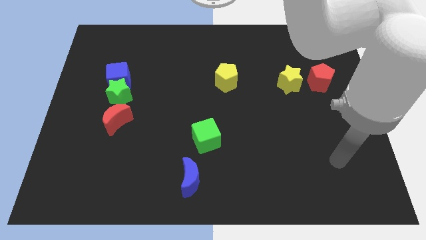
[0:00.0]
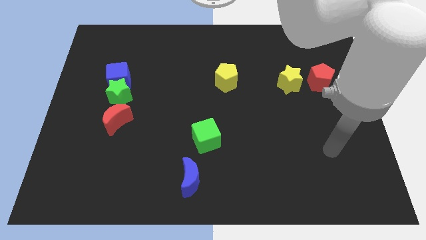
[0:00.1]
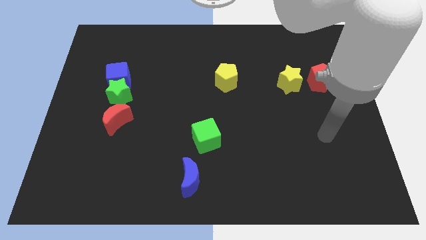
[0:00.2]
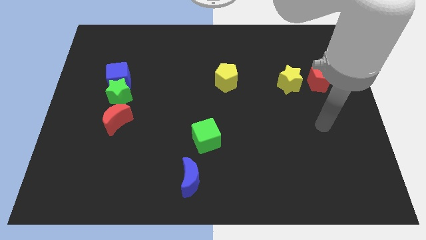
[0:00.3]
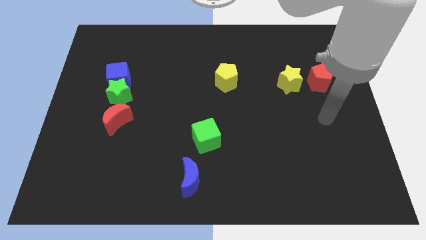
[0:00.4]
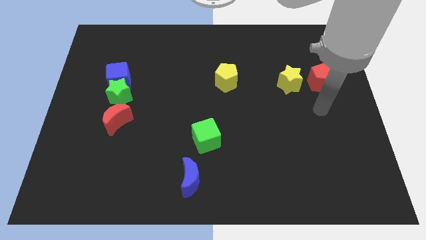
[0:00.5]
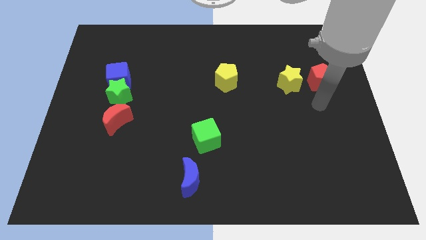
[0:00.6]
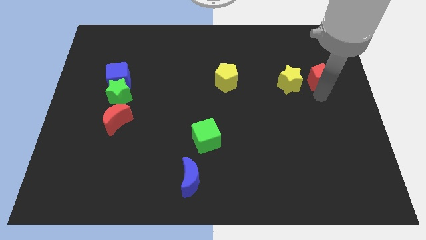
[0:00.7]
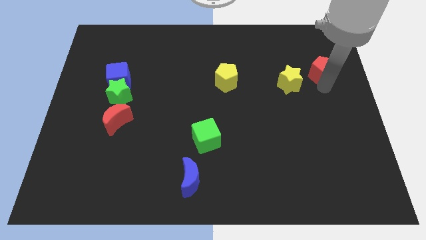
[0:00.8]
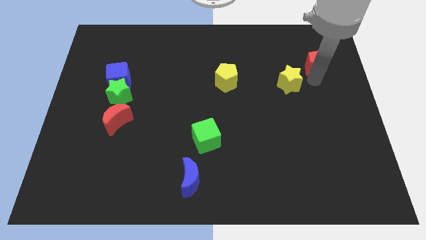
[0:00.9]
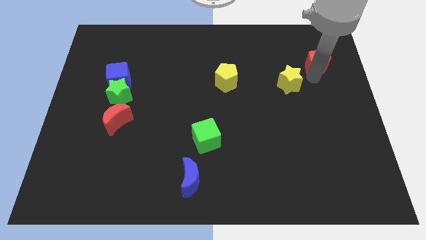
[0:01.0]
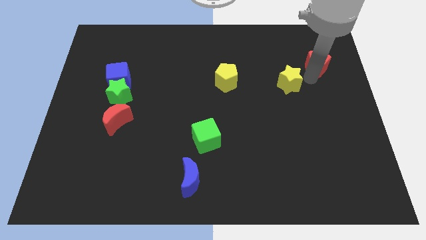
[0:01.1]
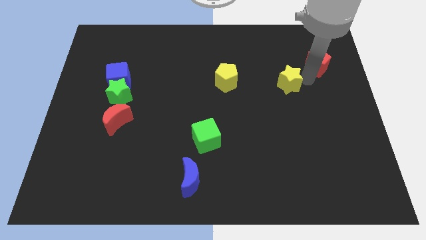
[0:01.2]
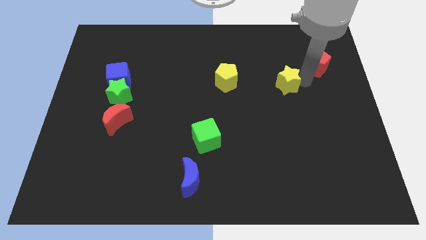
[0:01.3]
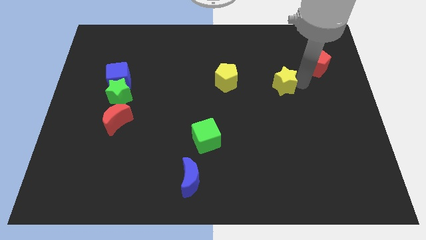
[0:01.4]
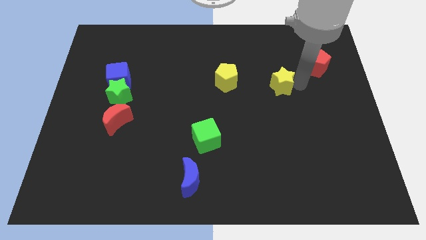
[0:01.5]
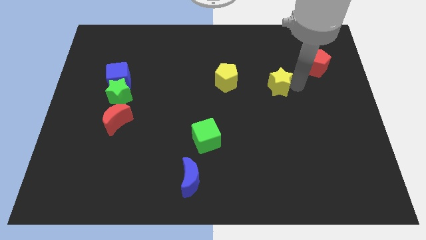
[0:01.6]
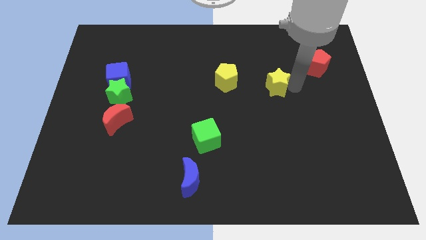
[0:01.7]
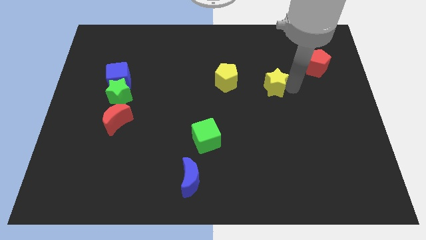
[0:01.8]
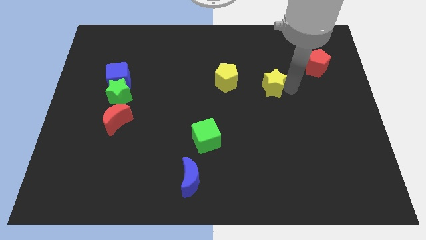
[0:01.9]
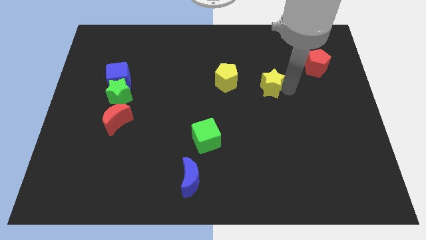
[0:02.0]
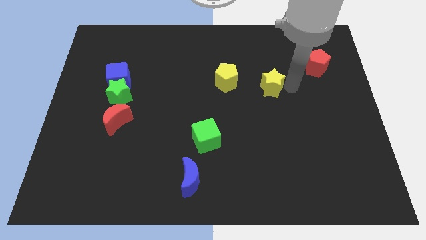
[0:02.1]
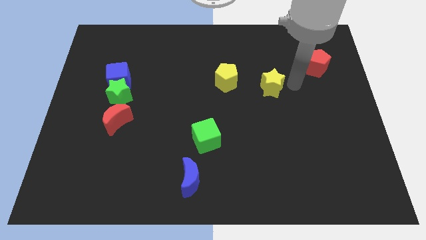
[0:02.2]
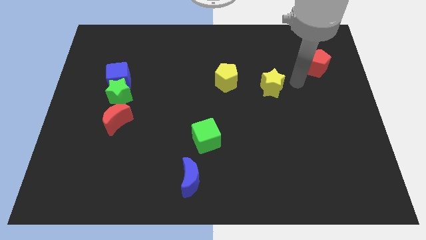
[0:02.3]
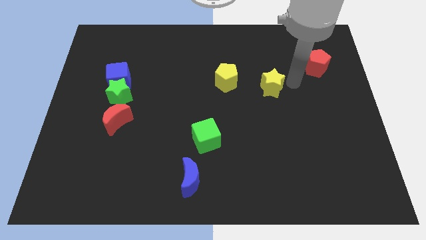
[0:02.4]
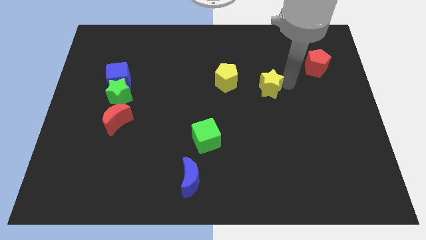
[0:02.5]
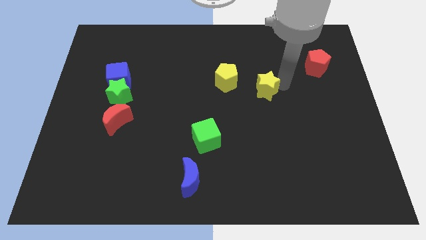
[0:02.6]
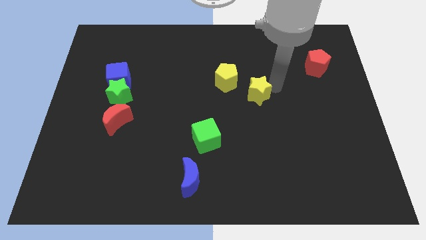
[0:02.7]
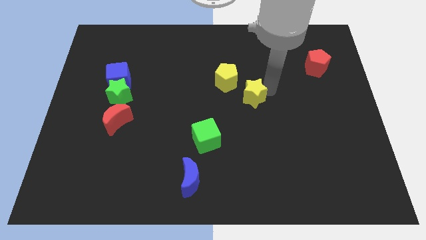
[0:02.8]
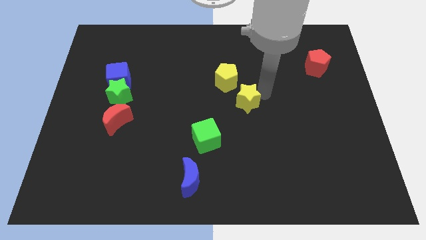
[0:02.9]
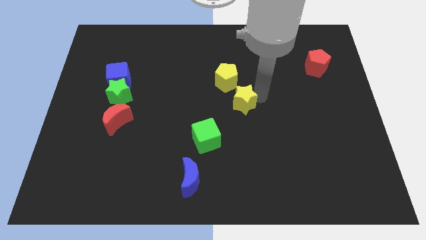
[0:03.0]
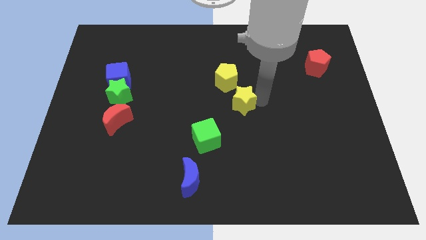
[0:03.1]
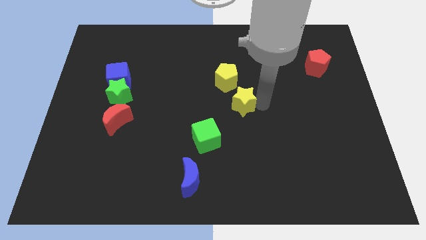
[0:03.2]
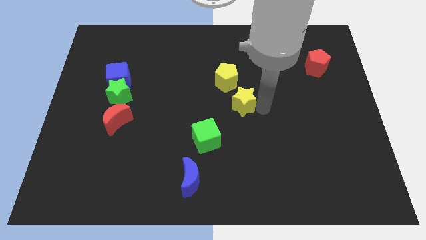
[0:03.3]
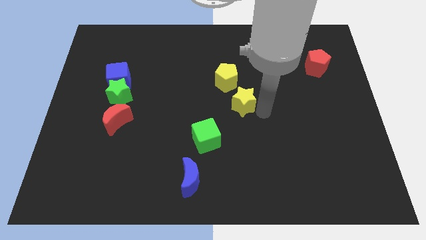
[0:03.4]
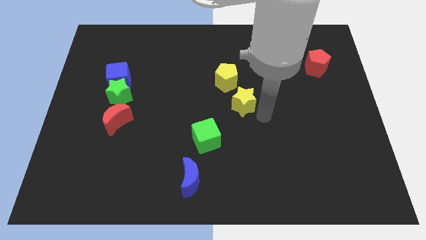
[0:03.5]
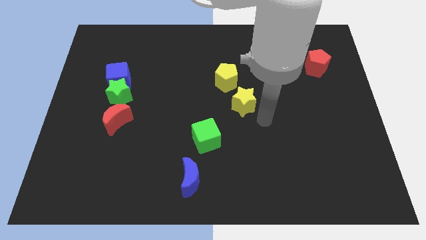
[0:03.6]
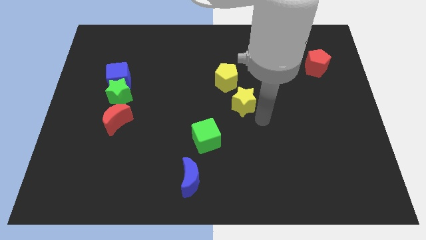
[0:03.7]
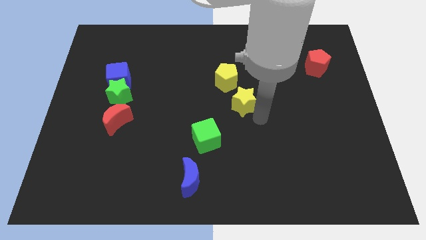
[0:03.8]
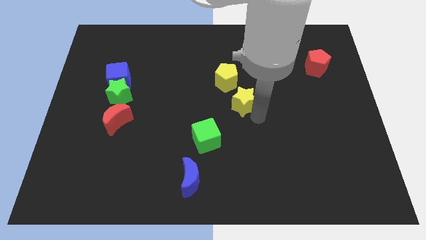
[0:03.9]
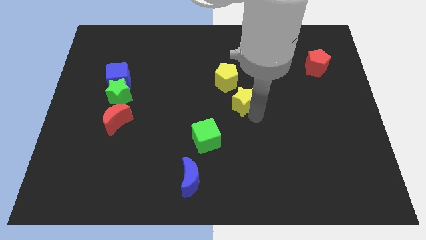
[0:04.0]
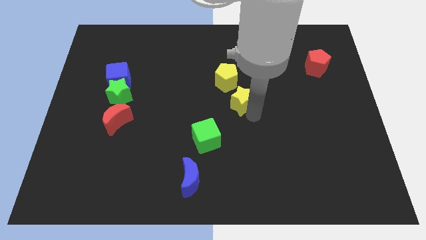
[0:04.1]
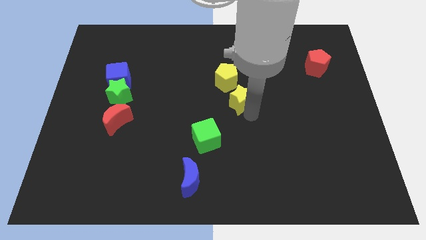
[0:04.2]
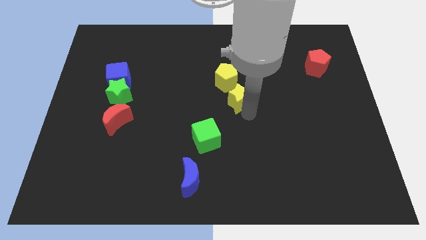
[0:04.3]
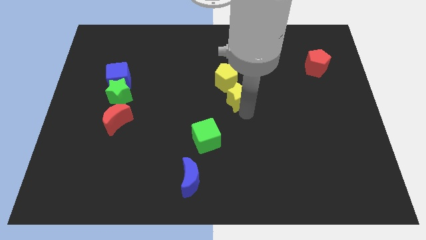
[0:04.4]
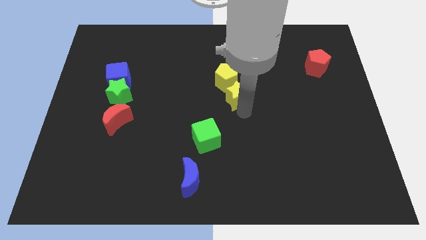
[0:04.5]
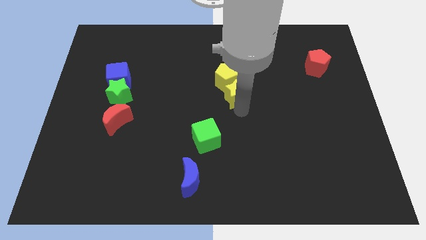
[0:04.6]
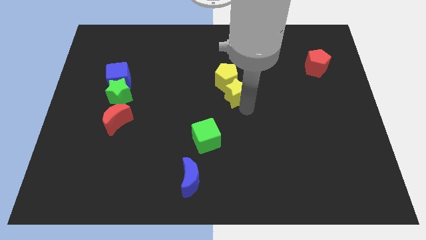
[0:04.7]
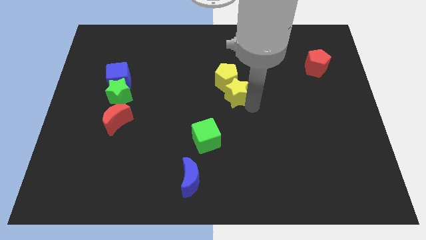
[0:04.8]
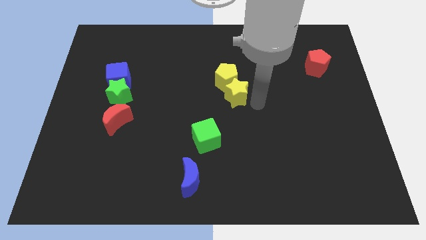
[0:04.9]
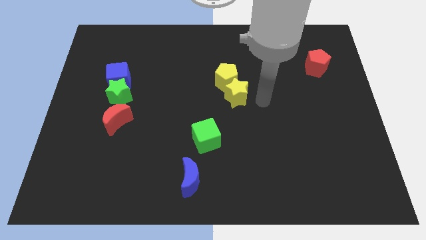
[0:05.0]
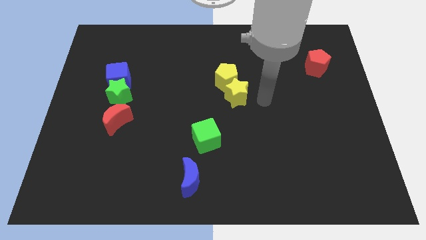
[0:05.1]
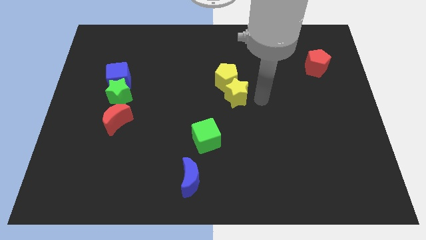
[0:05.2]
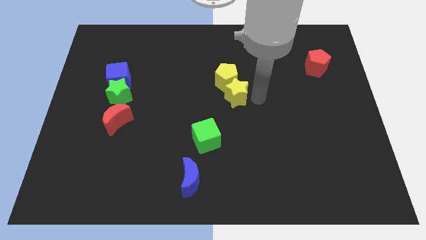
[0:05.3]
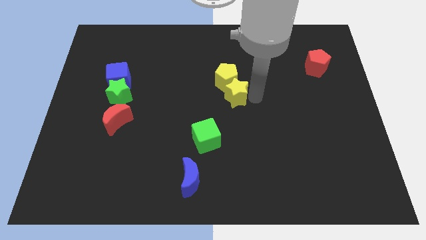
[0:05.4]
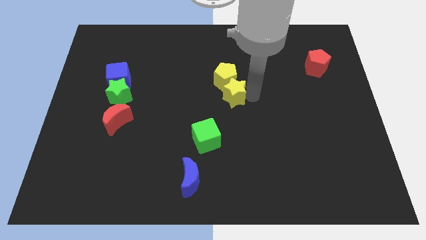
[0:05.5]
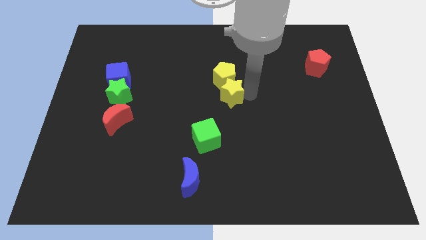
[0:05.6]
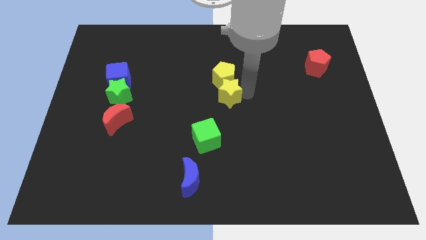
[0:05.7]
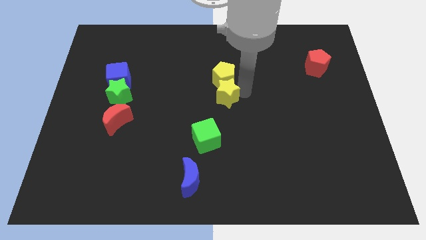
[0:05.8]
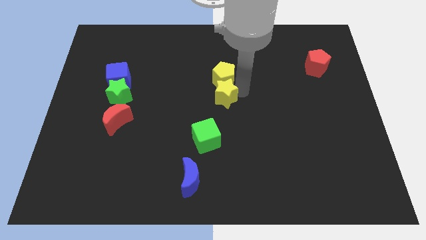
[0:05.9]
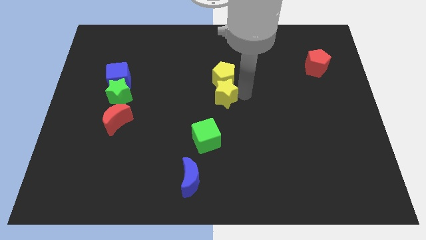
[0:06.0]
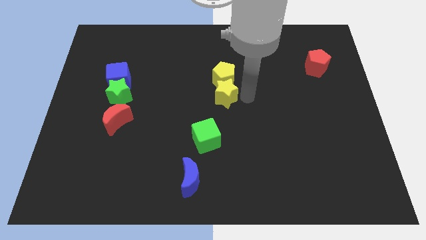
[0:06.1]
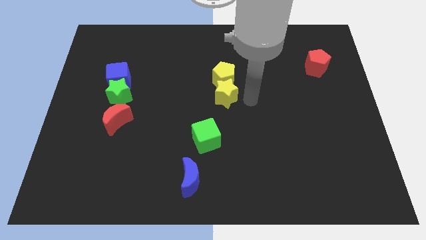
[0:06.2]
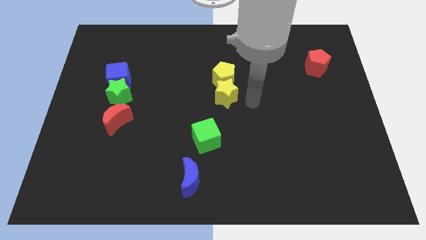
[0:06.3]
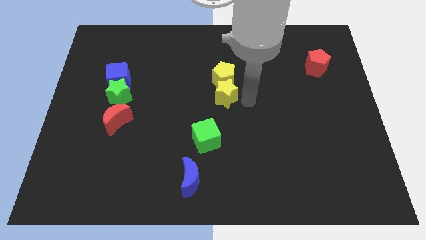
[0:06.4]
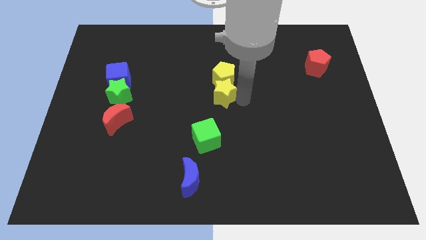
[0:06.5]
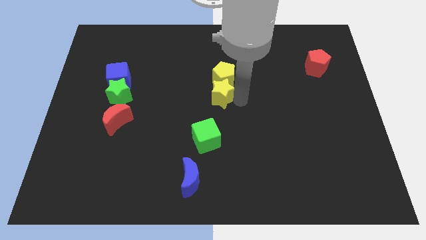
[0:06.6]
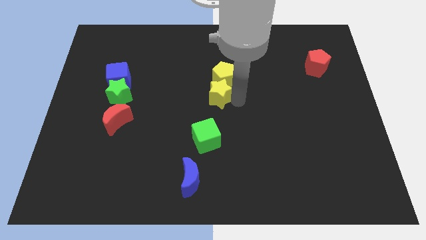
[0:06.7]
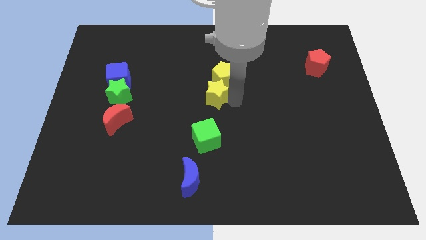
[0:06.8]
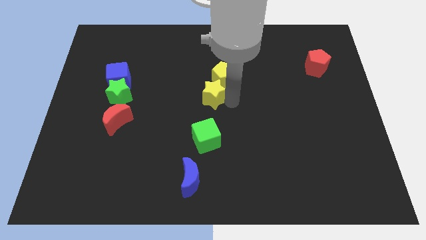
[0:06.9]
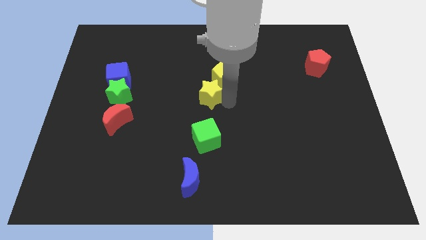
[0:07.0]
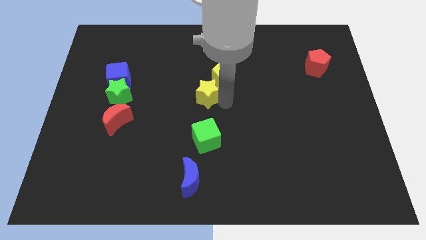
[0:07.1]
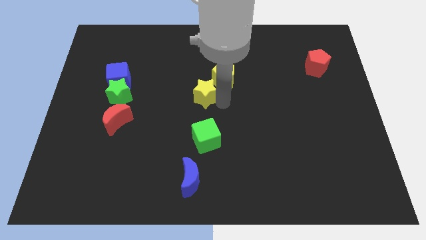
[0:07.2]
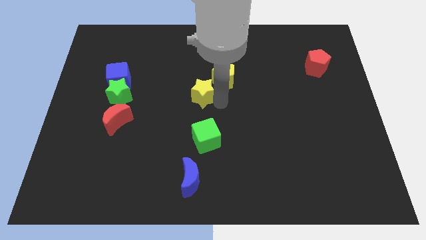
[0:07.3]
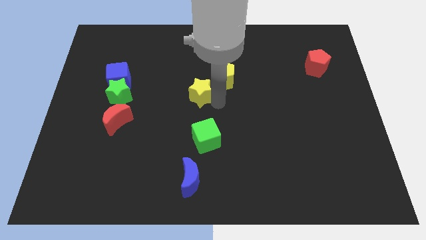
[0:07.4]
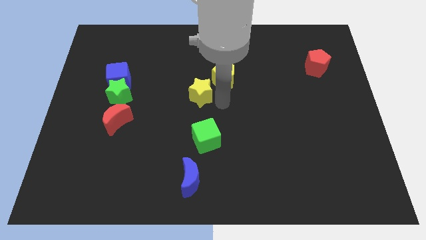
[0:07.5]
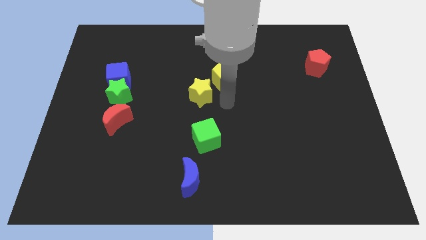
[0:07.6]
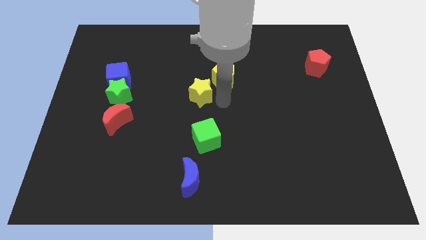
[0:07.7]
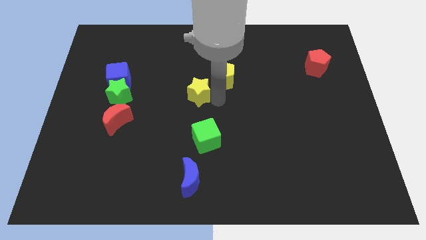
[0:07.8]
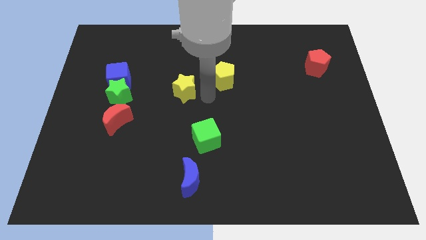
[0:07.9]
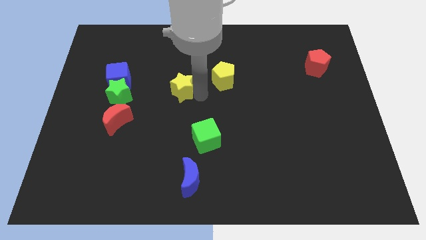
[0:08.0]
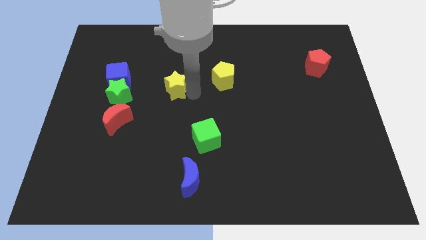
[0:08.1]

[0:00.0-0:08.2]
move the yellow star to the right side of the blue cube
